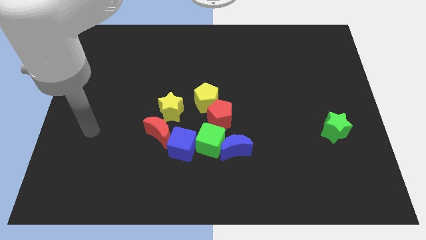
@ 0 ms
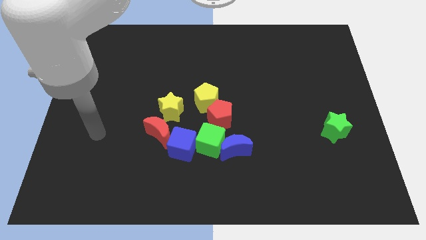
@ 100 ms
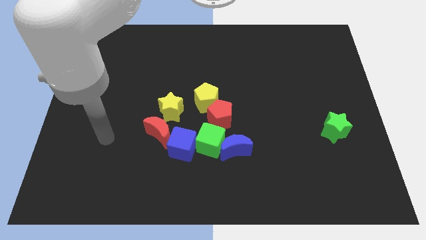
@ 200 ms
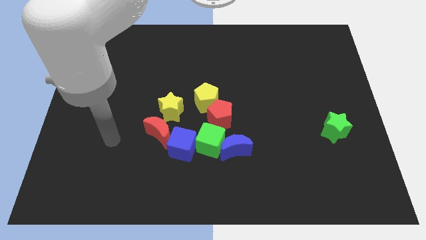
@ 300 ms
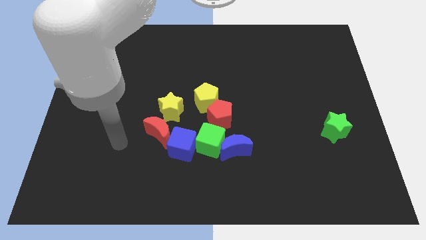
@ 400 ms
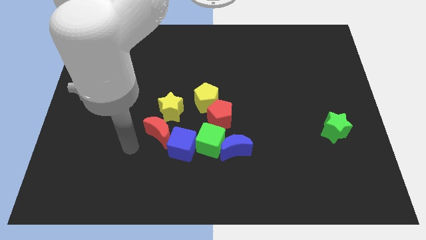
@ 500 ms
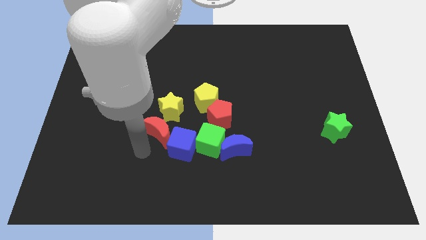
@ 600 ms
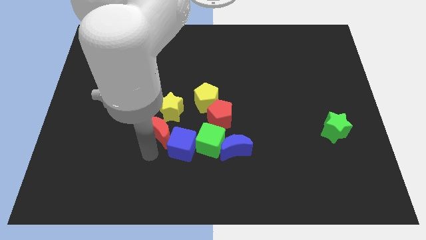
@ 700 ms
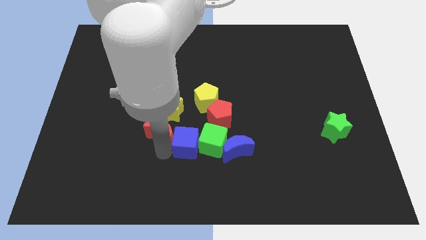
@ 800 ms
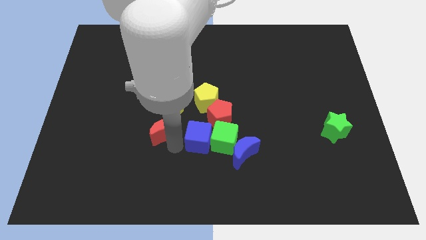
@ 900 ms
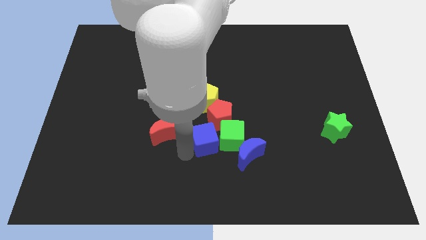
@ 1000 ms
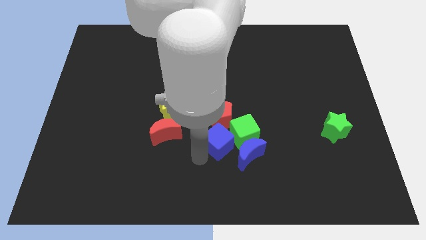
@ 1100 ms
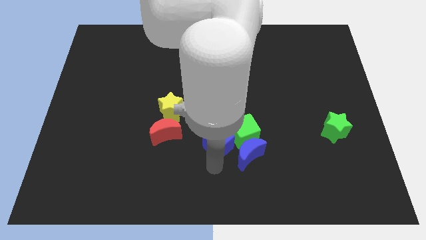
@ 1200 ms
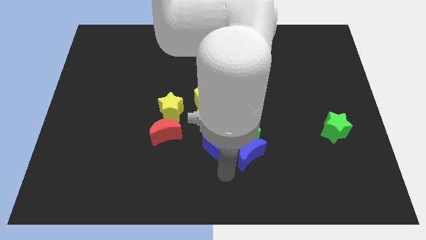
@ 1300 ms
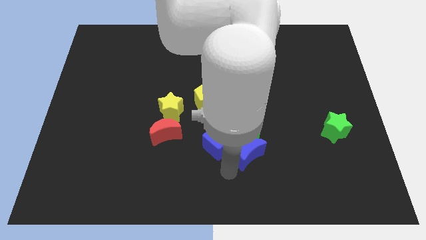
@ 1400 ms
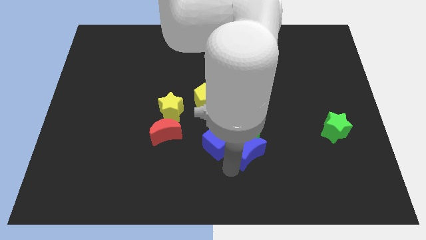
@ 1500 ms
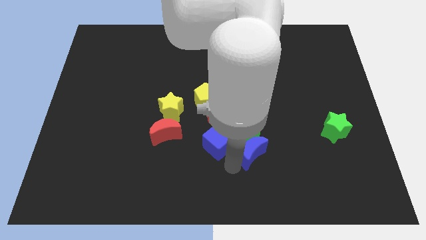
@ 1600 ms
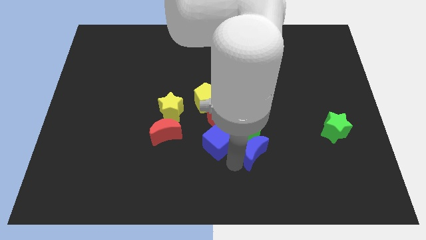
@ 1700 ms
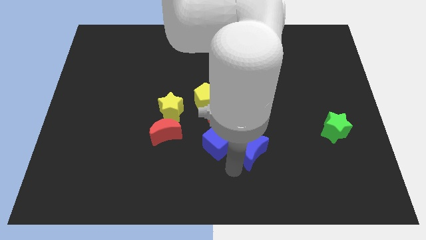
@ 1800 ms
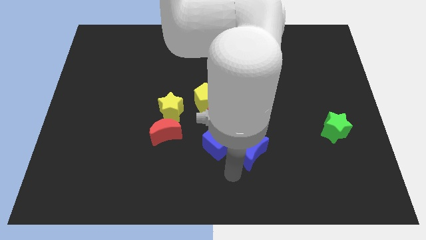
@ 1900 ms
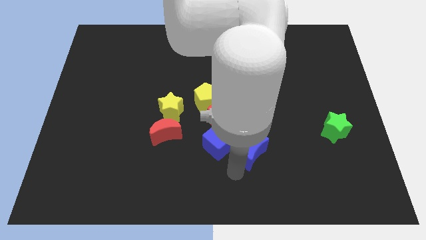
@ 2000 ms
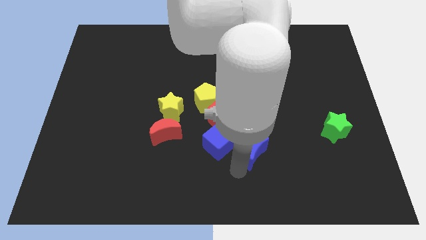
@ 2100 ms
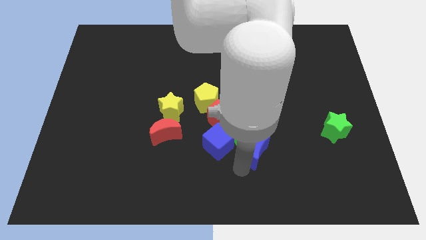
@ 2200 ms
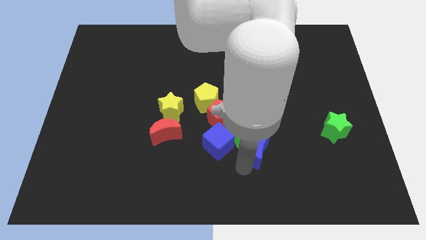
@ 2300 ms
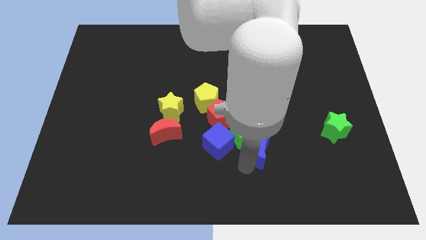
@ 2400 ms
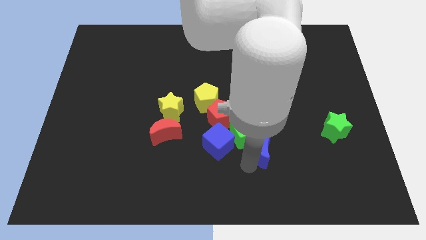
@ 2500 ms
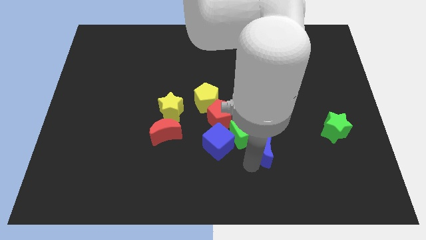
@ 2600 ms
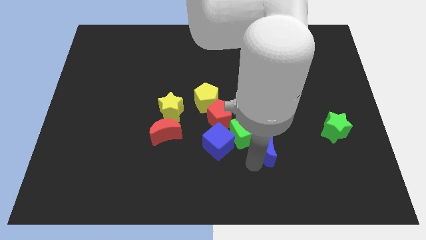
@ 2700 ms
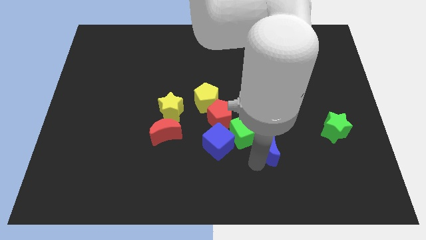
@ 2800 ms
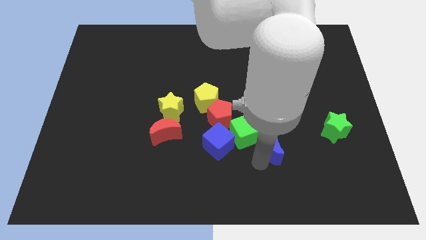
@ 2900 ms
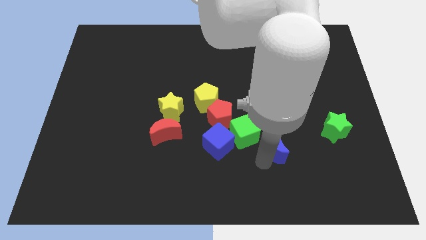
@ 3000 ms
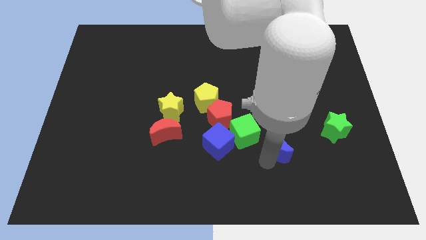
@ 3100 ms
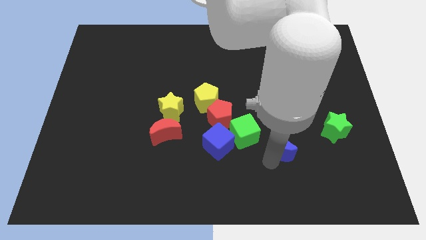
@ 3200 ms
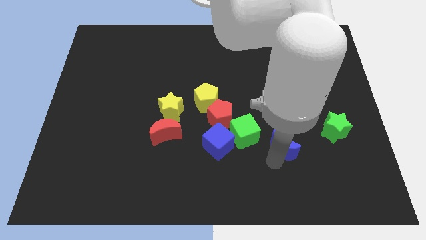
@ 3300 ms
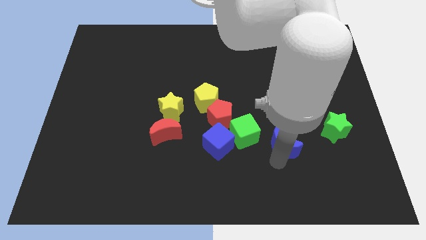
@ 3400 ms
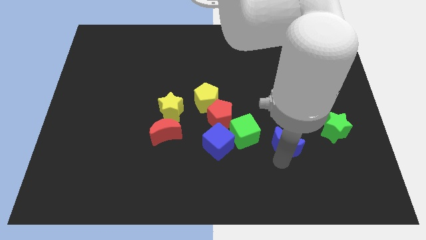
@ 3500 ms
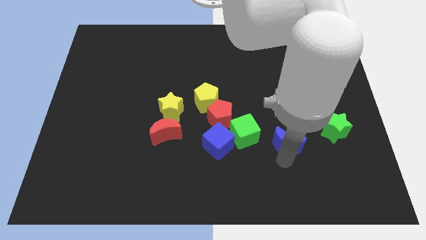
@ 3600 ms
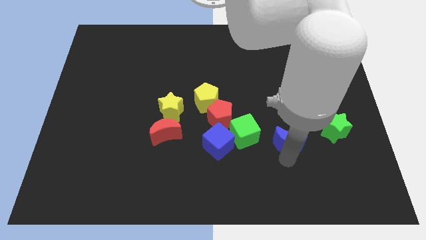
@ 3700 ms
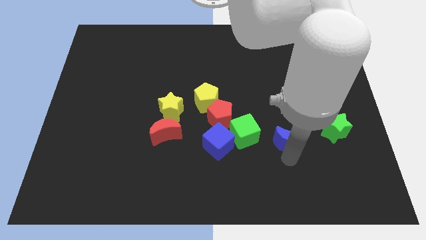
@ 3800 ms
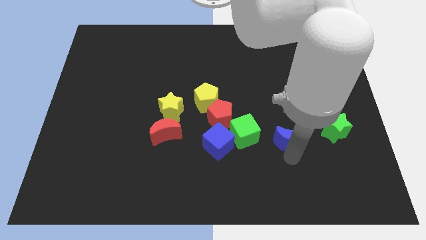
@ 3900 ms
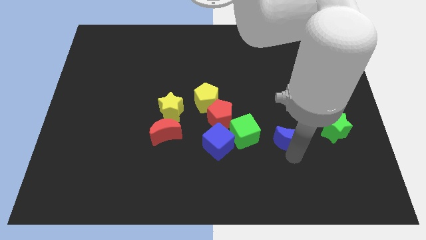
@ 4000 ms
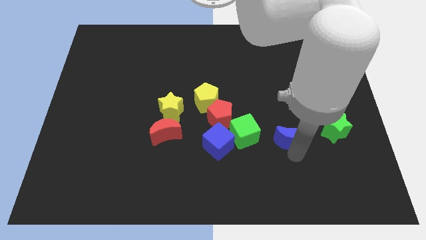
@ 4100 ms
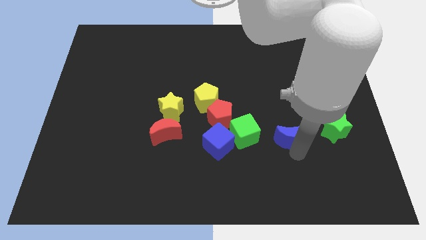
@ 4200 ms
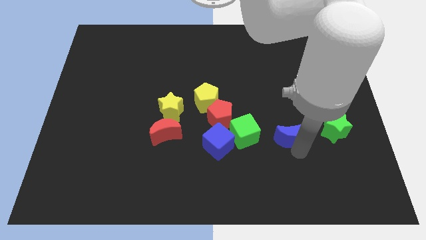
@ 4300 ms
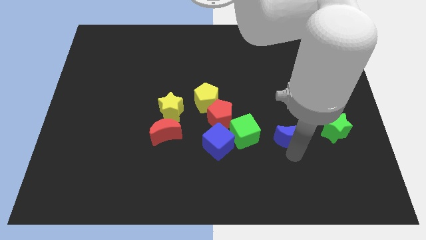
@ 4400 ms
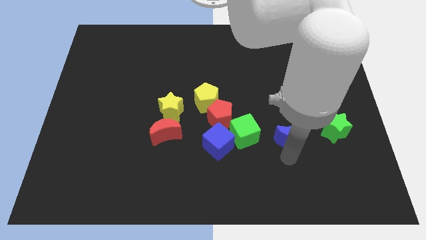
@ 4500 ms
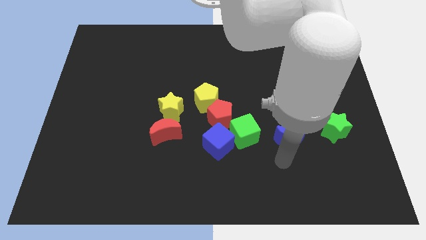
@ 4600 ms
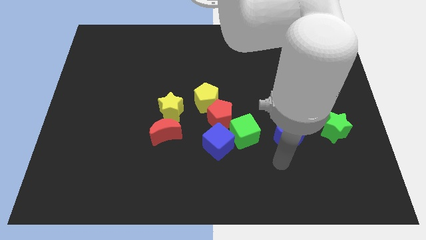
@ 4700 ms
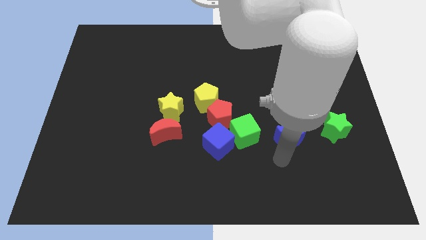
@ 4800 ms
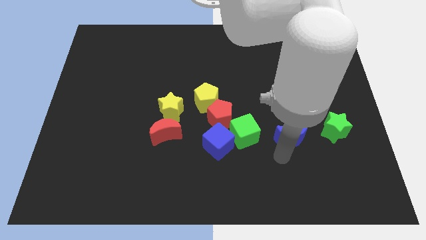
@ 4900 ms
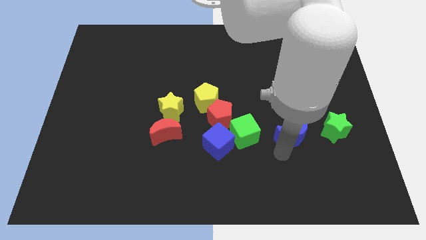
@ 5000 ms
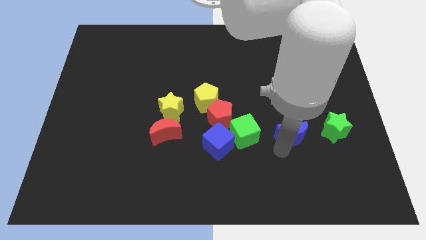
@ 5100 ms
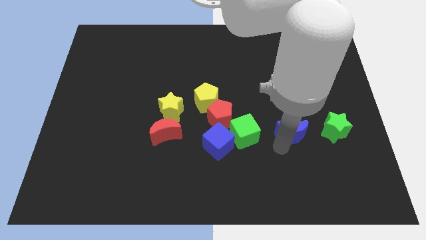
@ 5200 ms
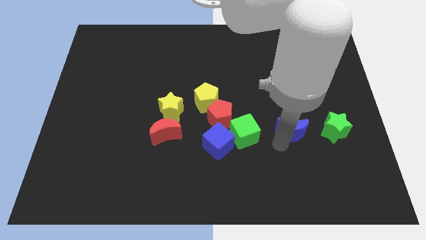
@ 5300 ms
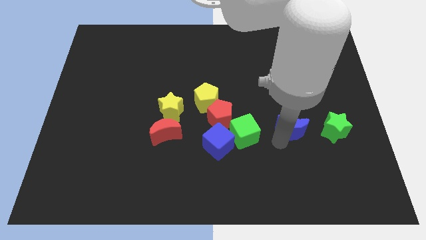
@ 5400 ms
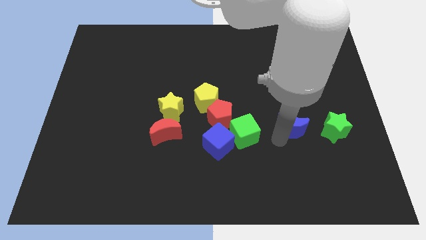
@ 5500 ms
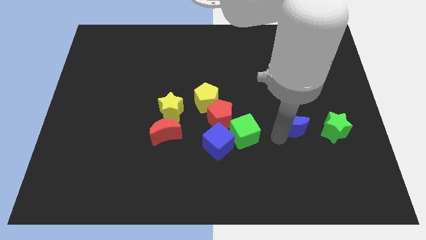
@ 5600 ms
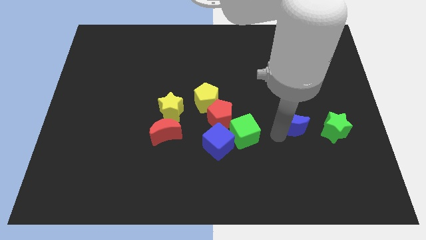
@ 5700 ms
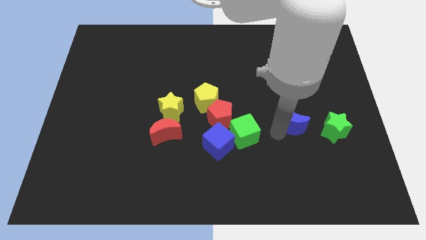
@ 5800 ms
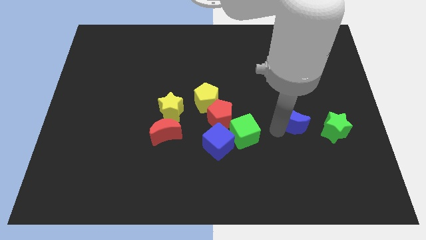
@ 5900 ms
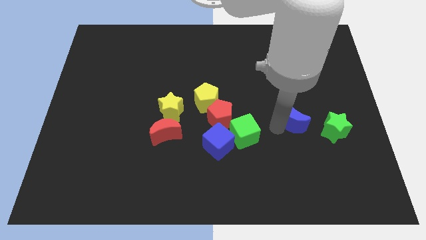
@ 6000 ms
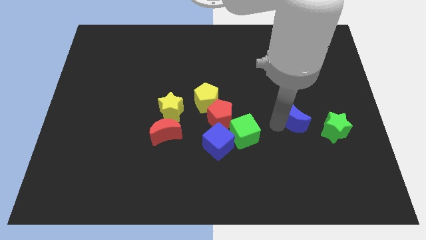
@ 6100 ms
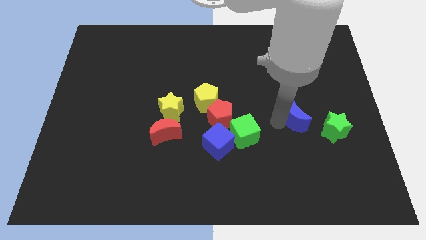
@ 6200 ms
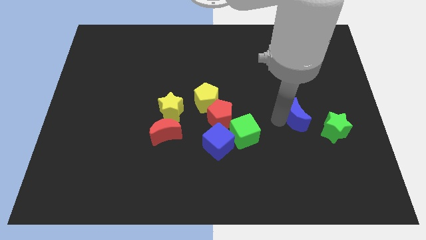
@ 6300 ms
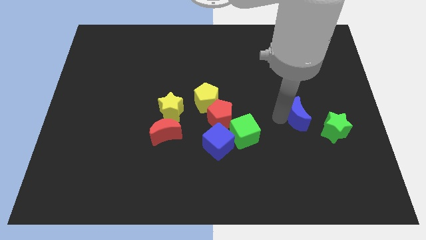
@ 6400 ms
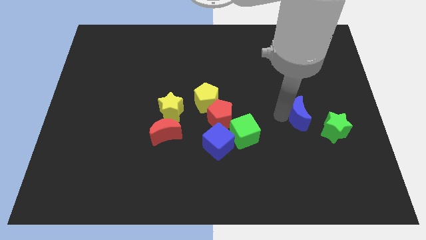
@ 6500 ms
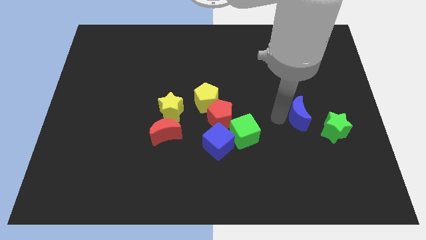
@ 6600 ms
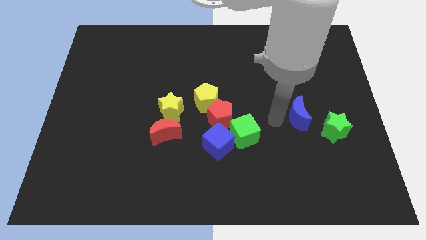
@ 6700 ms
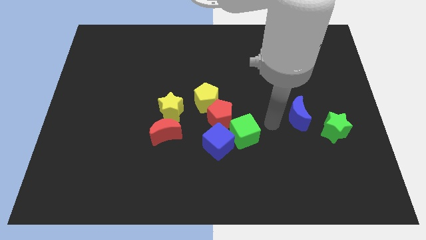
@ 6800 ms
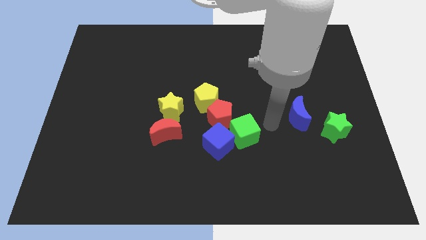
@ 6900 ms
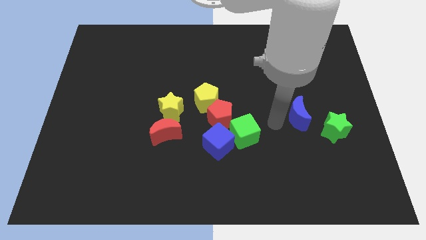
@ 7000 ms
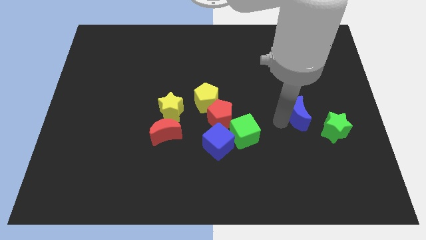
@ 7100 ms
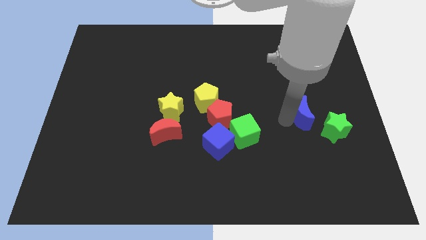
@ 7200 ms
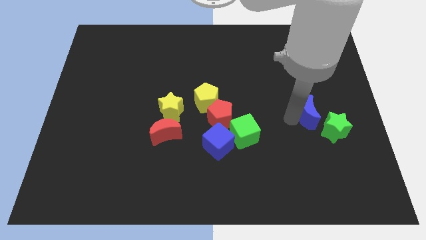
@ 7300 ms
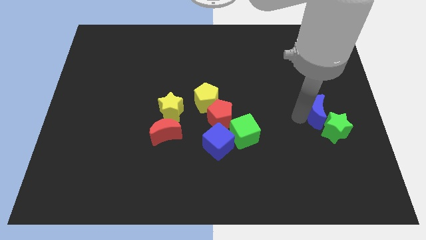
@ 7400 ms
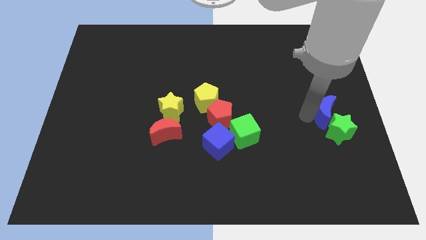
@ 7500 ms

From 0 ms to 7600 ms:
push the blue moon to the center right
